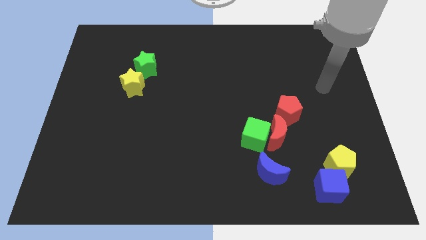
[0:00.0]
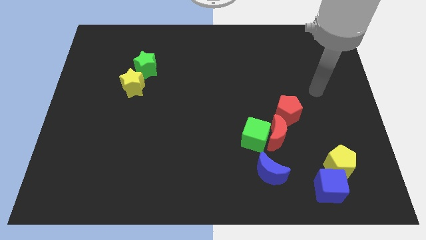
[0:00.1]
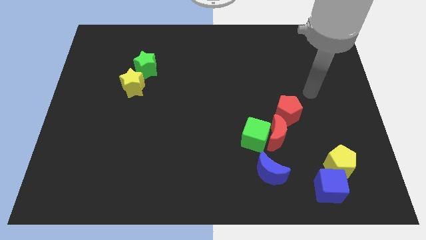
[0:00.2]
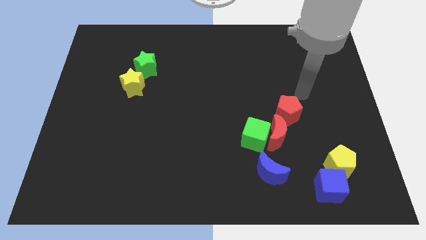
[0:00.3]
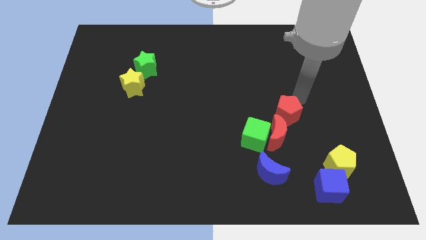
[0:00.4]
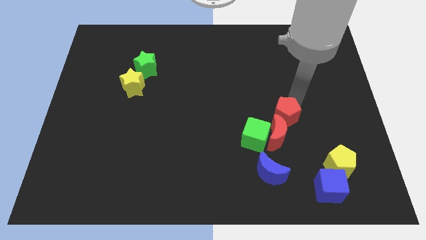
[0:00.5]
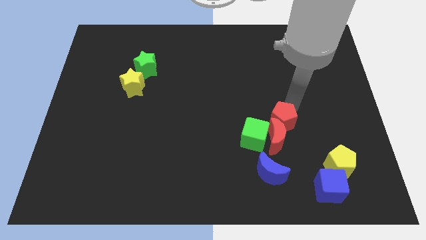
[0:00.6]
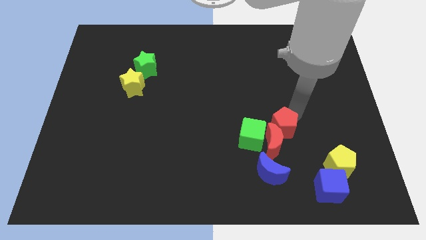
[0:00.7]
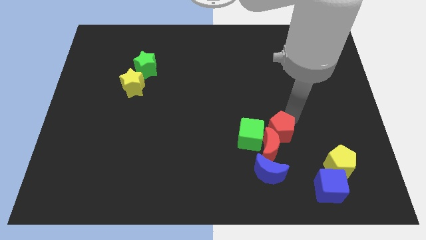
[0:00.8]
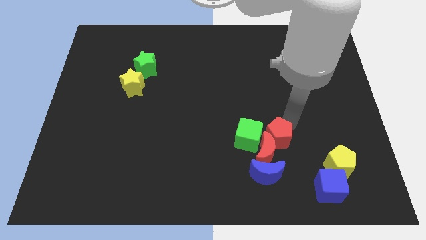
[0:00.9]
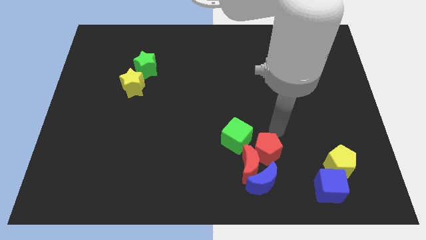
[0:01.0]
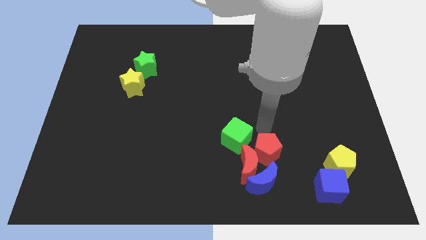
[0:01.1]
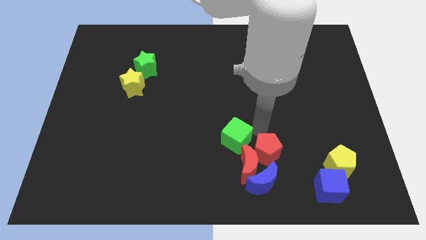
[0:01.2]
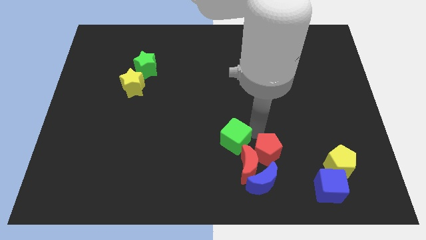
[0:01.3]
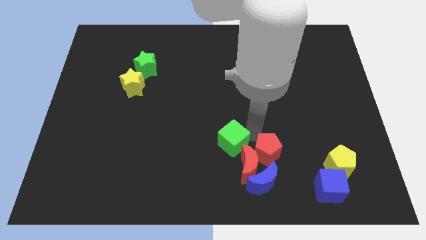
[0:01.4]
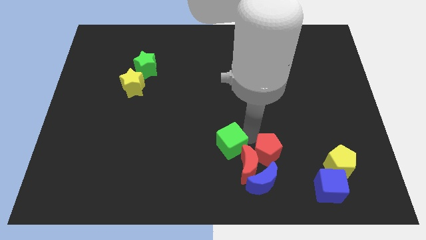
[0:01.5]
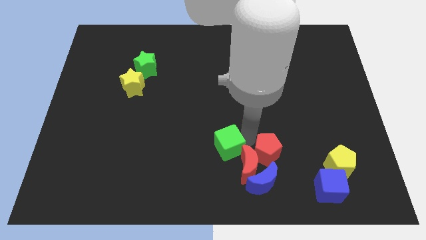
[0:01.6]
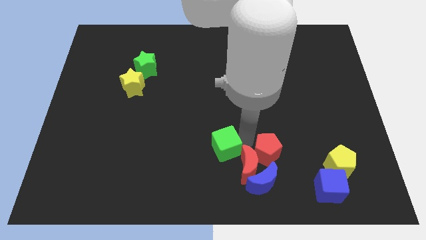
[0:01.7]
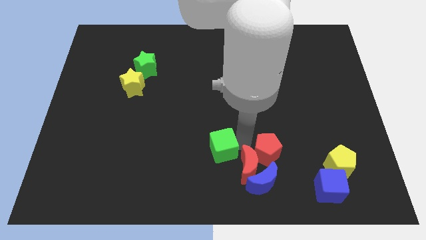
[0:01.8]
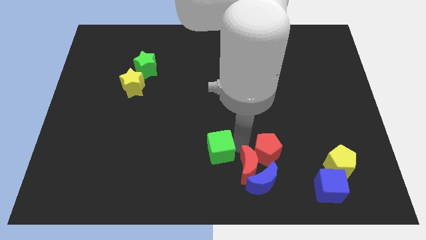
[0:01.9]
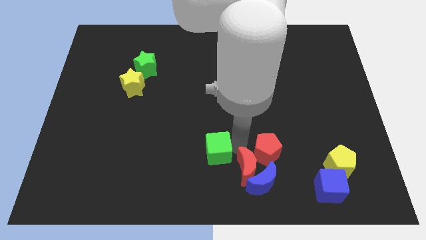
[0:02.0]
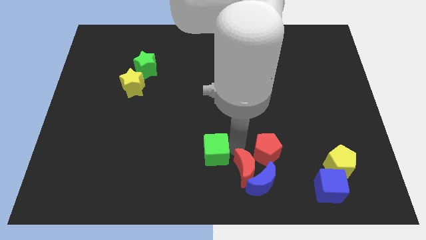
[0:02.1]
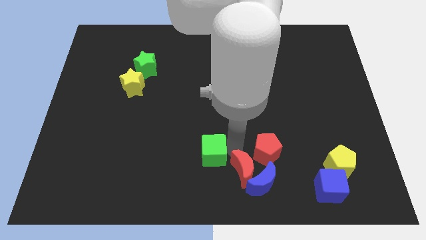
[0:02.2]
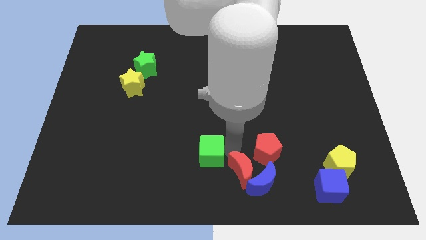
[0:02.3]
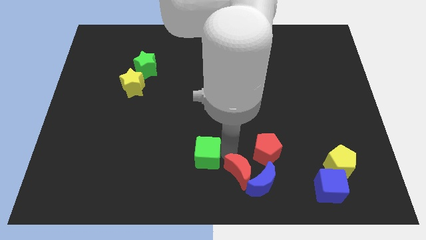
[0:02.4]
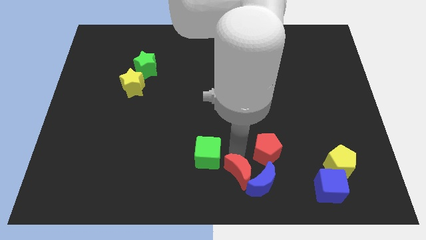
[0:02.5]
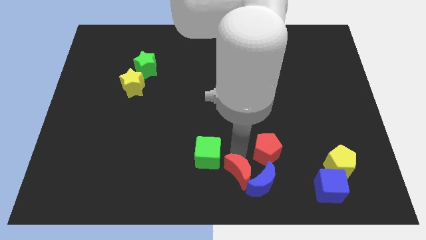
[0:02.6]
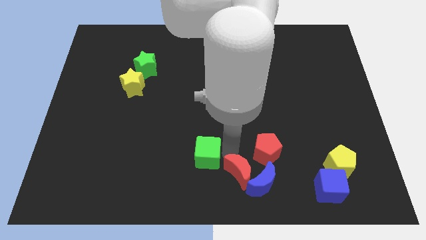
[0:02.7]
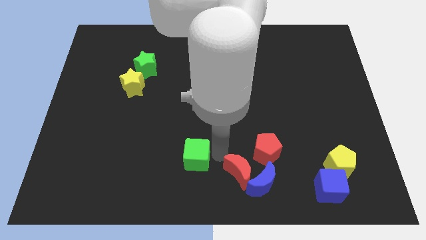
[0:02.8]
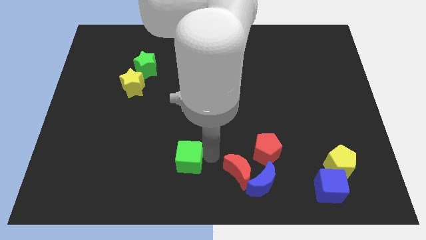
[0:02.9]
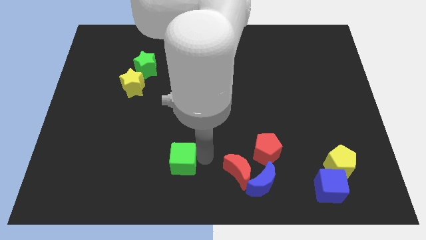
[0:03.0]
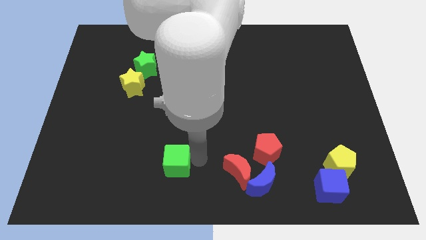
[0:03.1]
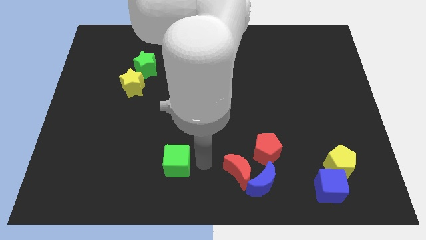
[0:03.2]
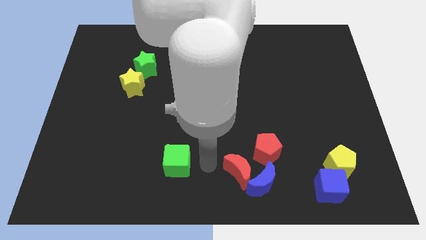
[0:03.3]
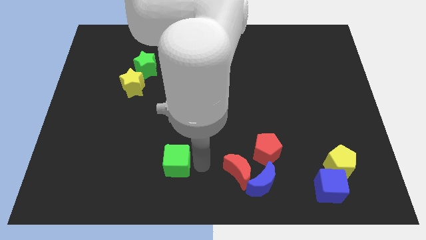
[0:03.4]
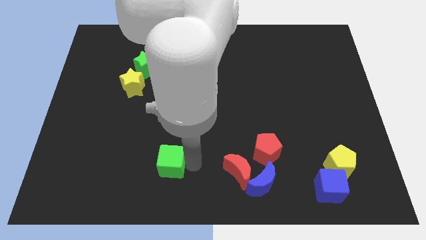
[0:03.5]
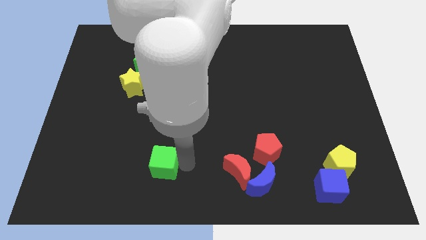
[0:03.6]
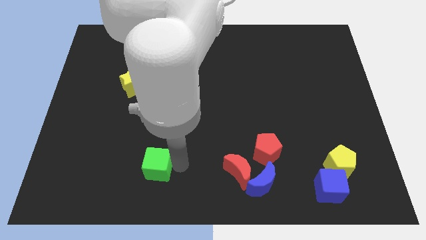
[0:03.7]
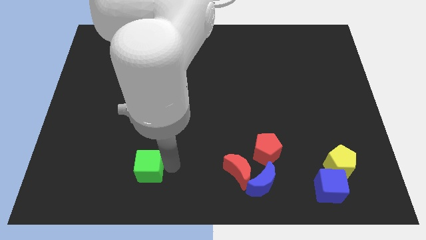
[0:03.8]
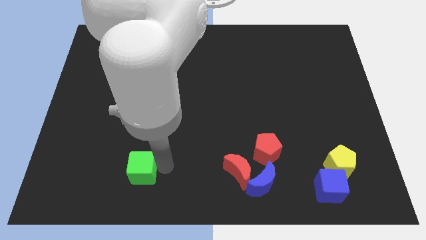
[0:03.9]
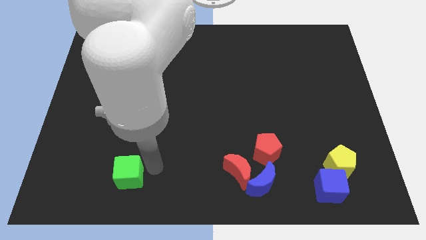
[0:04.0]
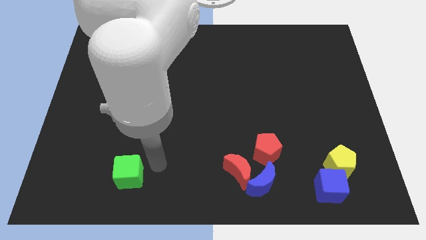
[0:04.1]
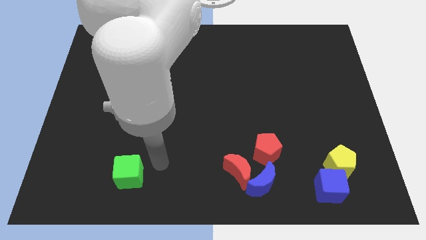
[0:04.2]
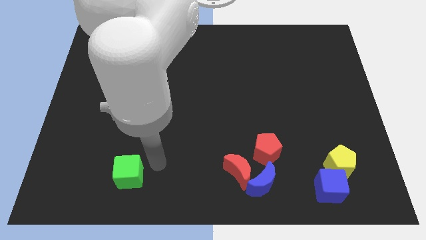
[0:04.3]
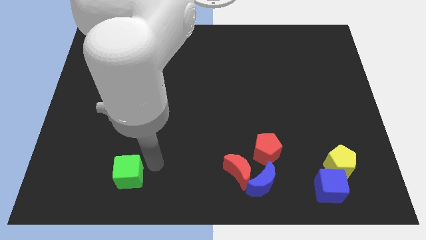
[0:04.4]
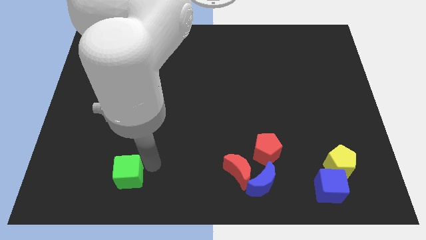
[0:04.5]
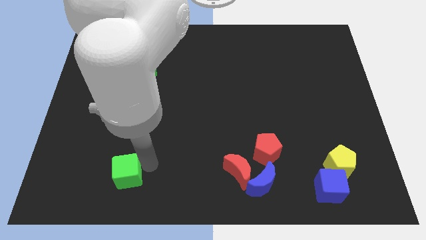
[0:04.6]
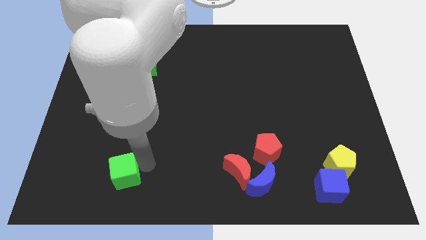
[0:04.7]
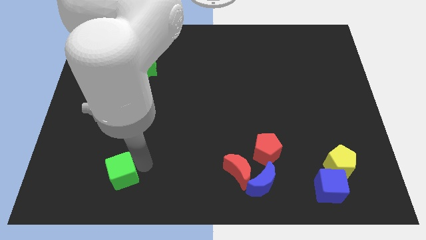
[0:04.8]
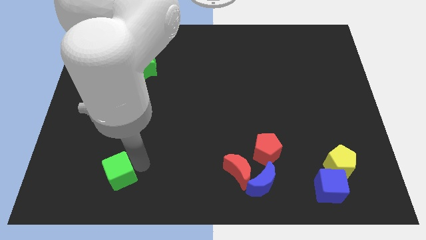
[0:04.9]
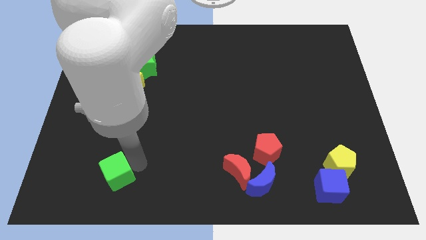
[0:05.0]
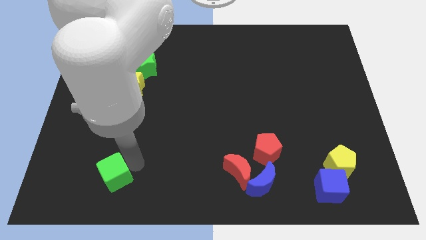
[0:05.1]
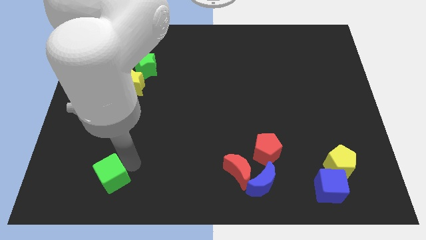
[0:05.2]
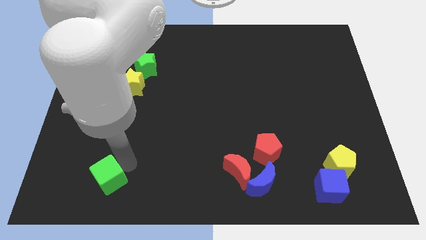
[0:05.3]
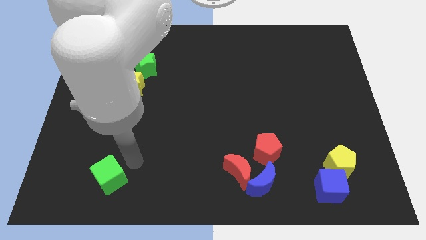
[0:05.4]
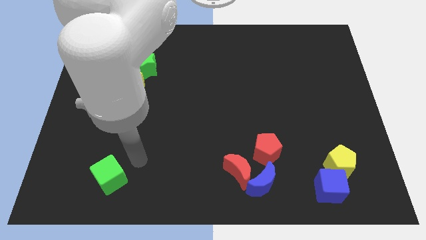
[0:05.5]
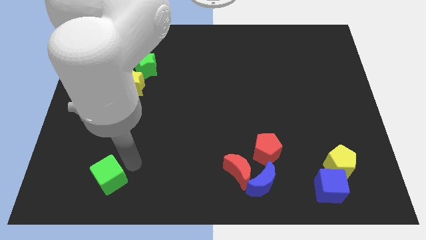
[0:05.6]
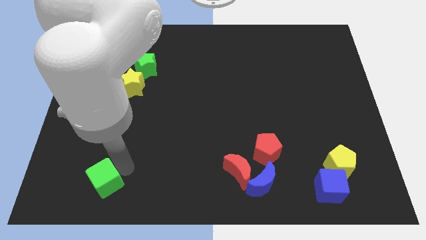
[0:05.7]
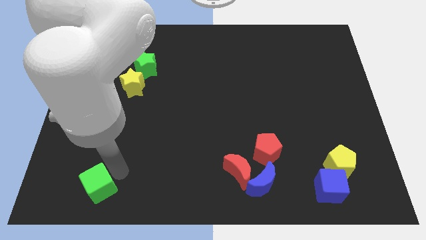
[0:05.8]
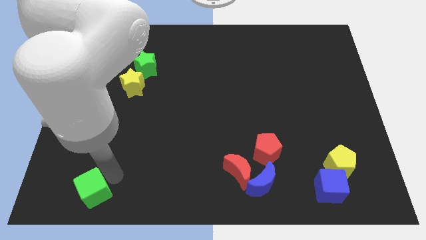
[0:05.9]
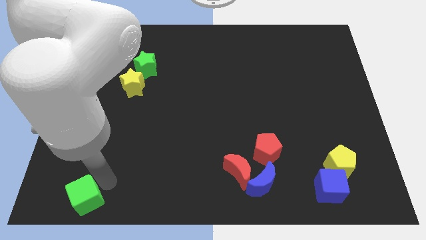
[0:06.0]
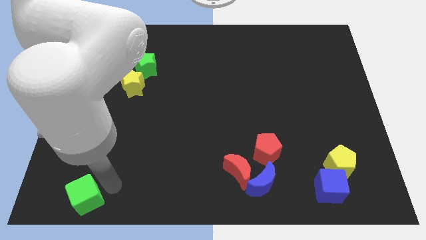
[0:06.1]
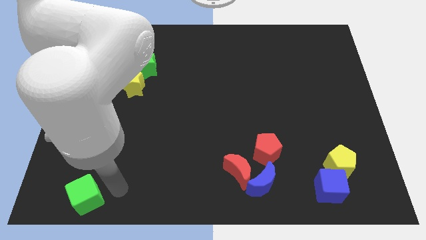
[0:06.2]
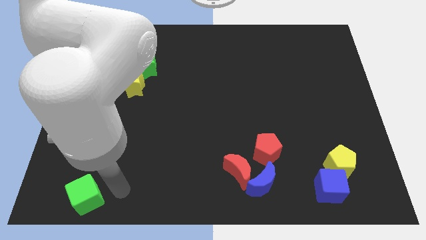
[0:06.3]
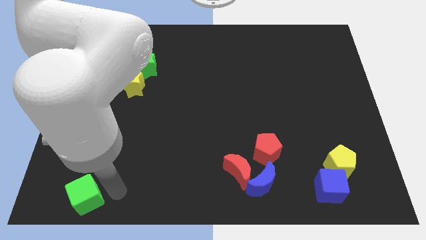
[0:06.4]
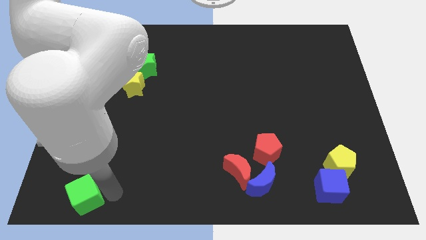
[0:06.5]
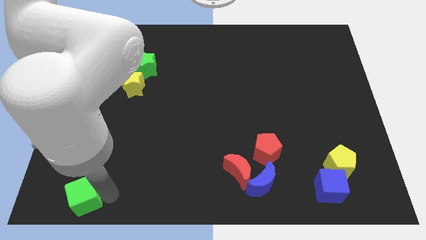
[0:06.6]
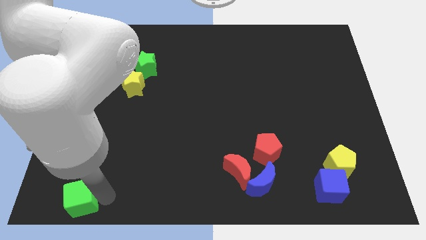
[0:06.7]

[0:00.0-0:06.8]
slide the green cube to the bottom left of the board

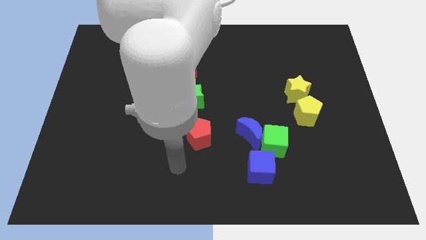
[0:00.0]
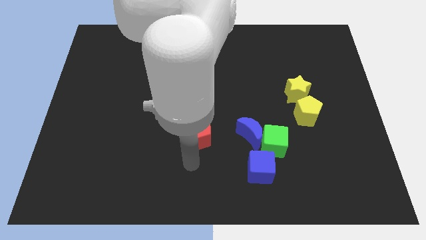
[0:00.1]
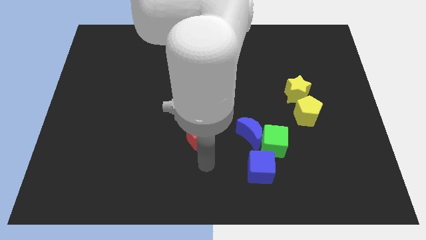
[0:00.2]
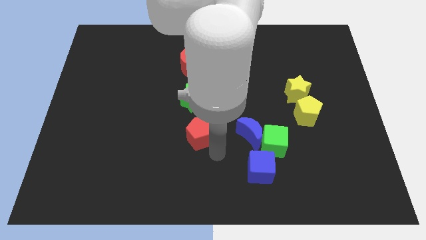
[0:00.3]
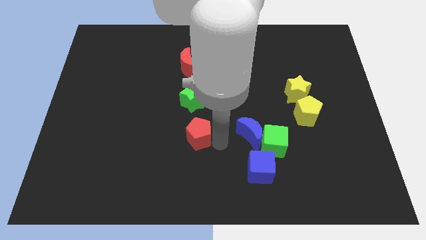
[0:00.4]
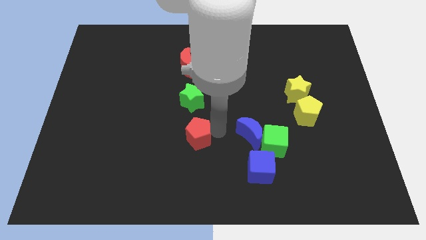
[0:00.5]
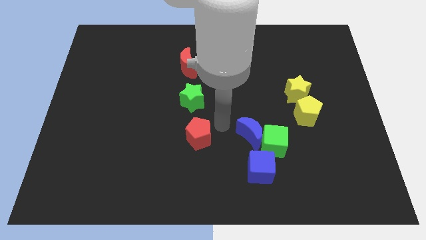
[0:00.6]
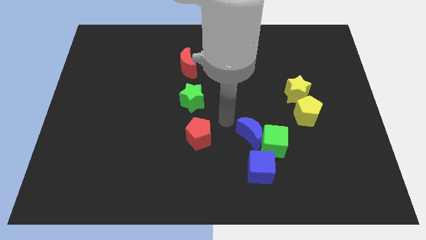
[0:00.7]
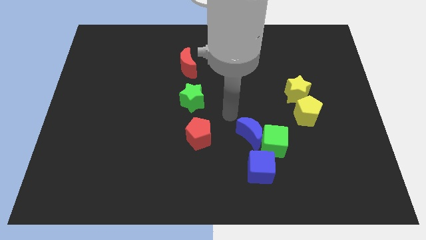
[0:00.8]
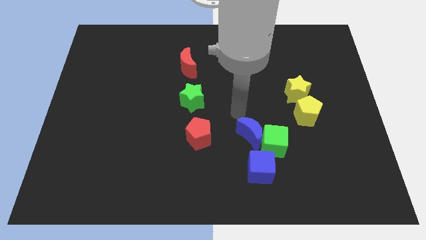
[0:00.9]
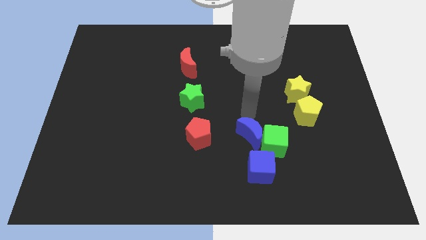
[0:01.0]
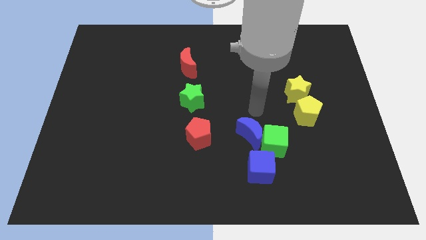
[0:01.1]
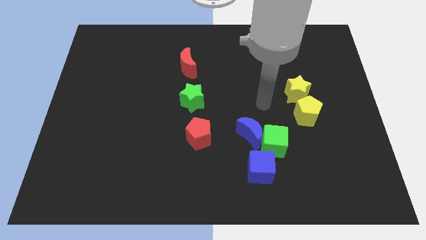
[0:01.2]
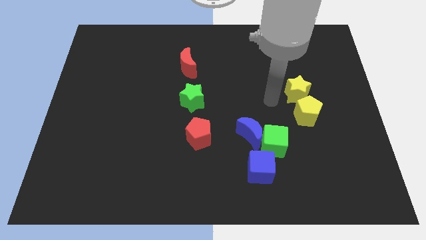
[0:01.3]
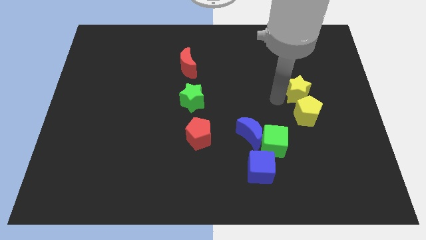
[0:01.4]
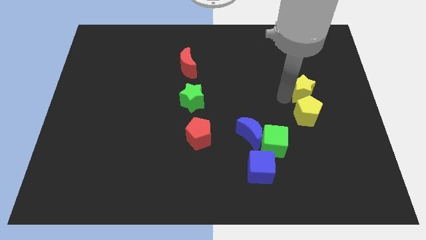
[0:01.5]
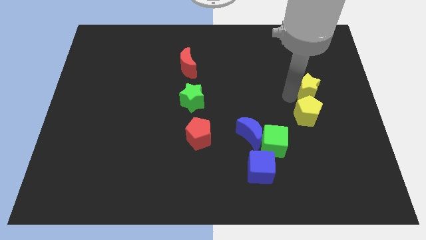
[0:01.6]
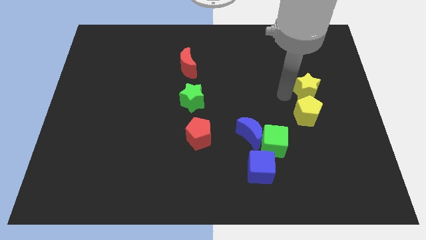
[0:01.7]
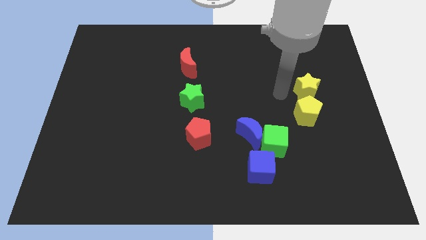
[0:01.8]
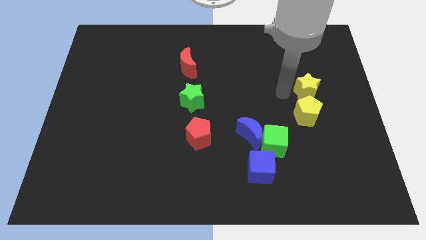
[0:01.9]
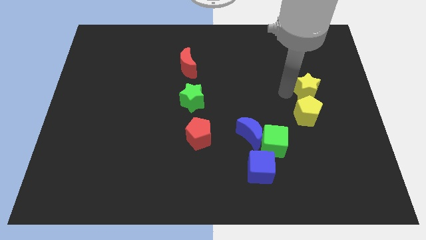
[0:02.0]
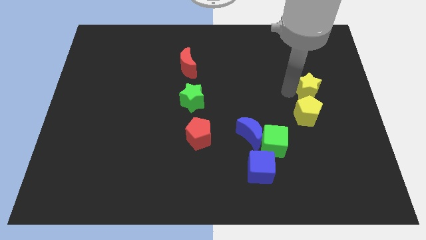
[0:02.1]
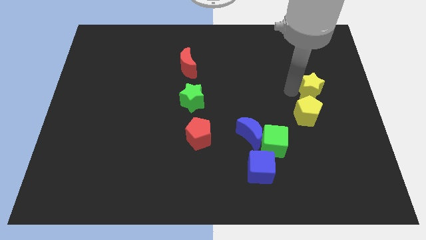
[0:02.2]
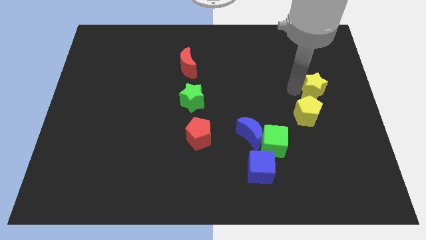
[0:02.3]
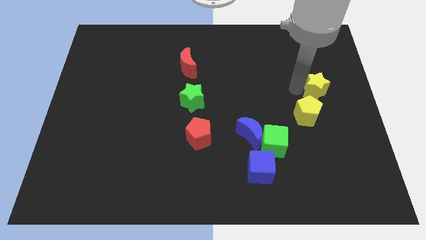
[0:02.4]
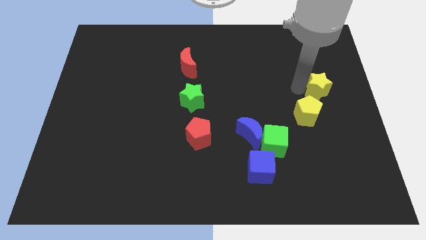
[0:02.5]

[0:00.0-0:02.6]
push the yellow star to the right side of the board
